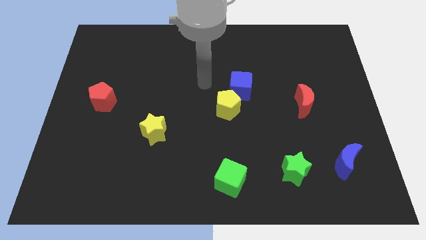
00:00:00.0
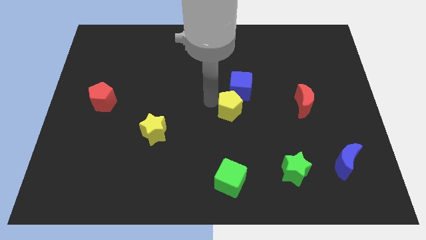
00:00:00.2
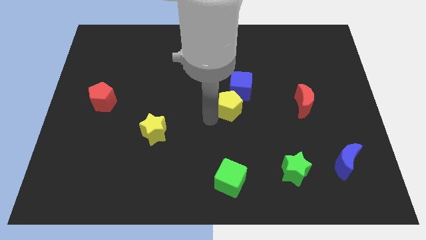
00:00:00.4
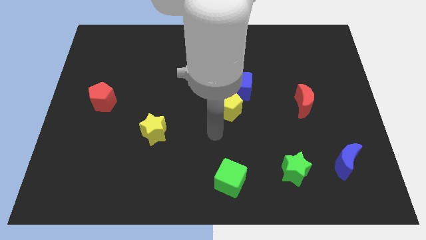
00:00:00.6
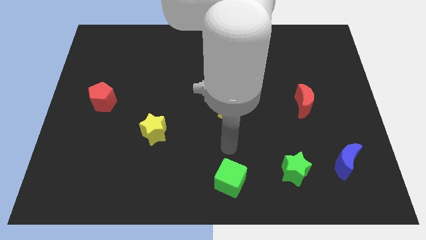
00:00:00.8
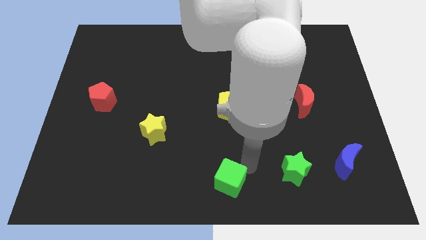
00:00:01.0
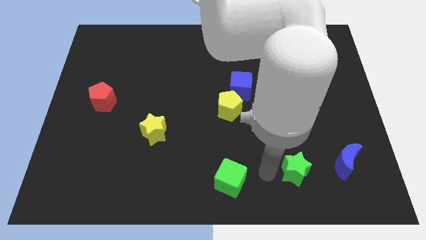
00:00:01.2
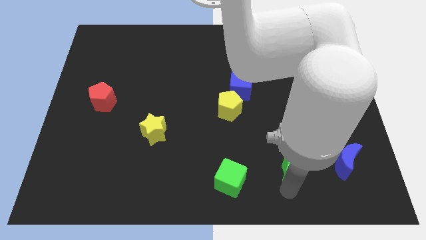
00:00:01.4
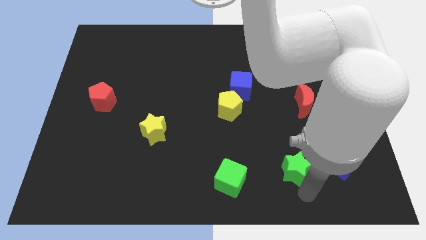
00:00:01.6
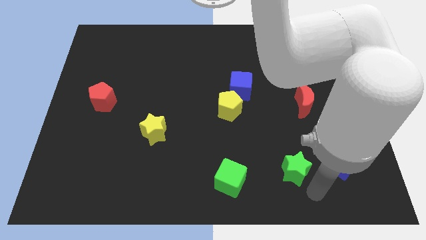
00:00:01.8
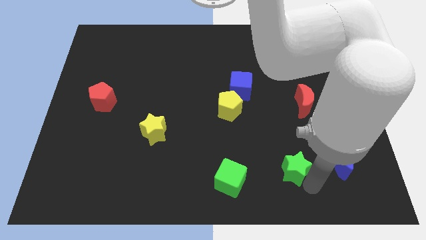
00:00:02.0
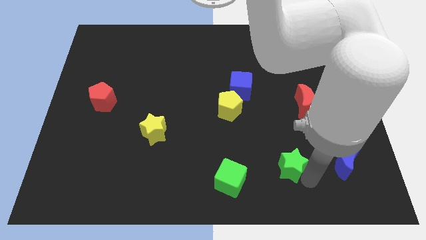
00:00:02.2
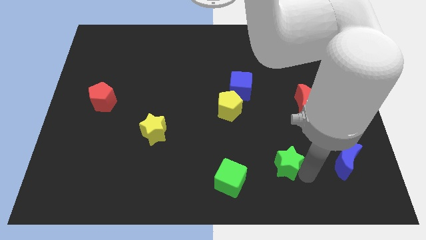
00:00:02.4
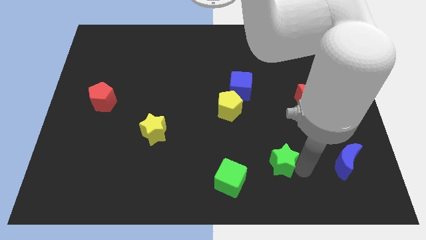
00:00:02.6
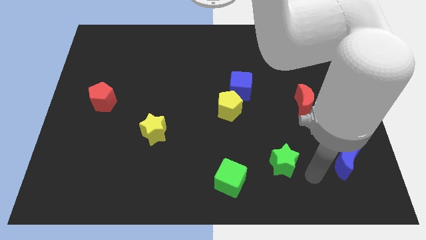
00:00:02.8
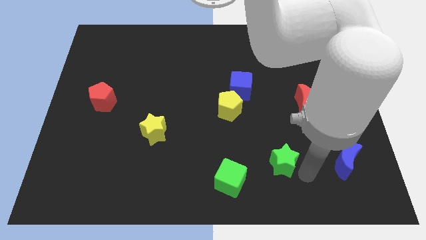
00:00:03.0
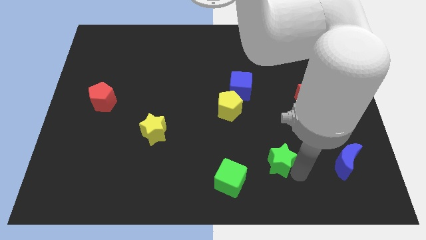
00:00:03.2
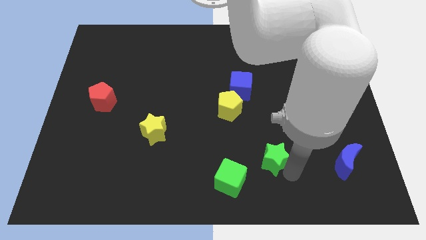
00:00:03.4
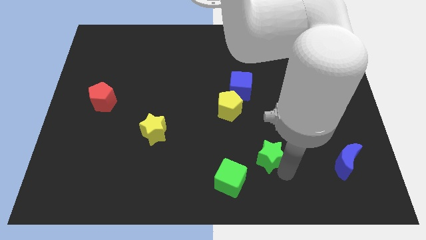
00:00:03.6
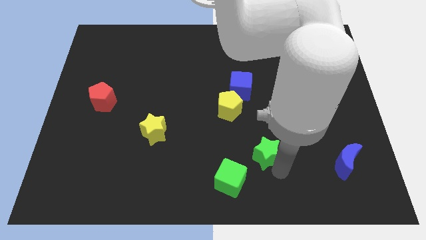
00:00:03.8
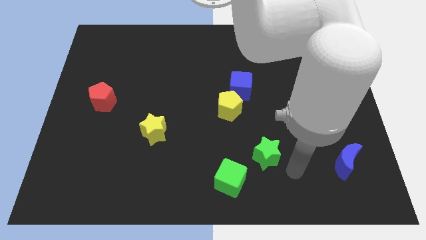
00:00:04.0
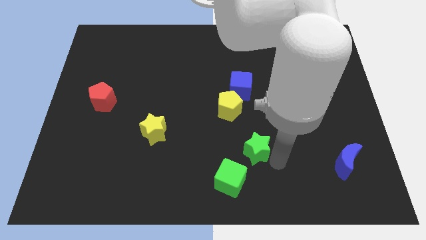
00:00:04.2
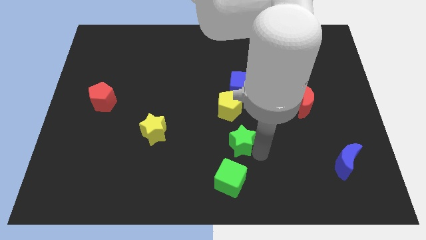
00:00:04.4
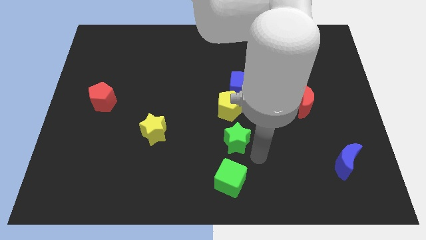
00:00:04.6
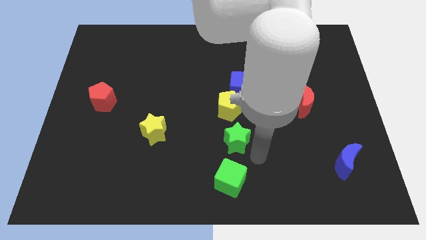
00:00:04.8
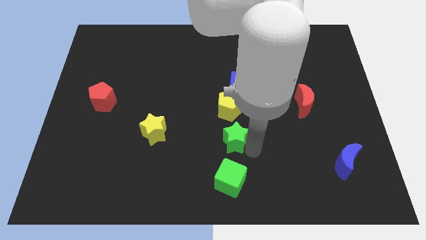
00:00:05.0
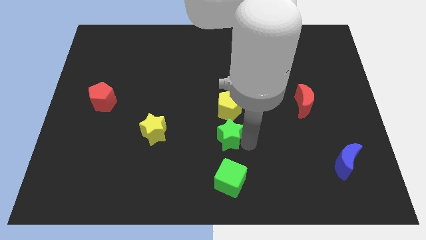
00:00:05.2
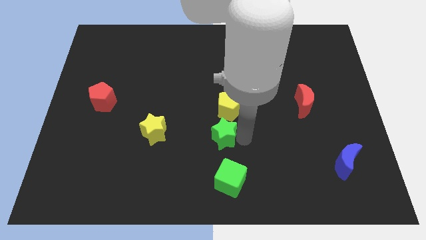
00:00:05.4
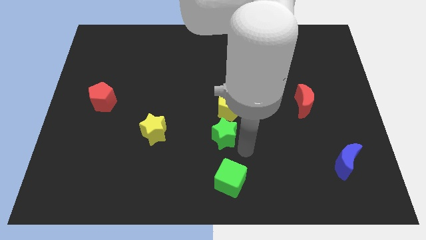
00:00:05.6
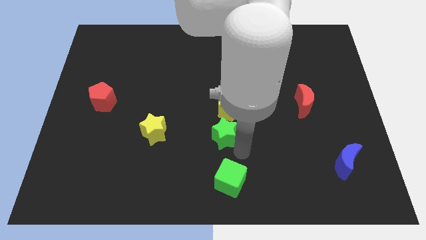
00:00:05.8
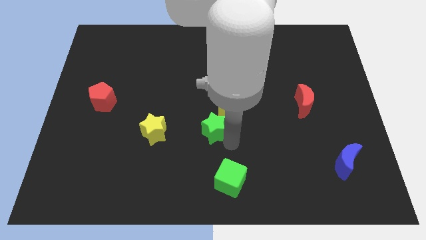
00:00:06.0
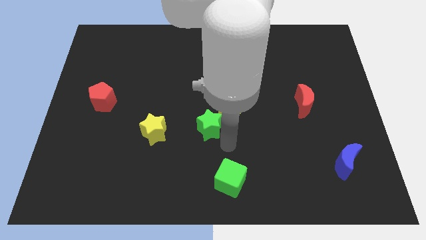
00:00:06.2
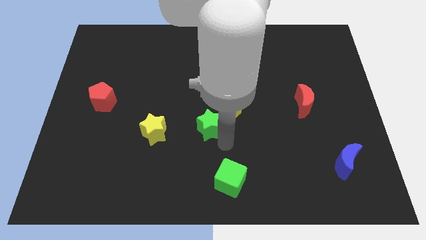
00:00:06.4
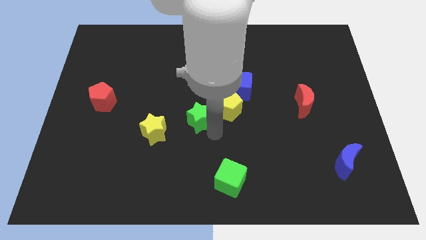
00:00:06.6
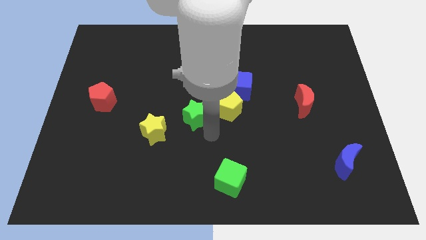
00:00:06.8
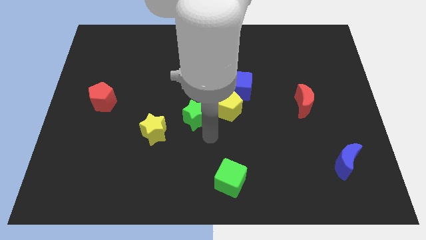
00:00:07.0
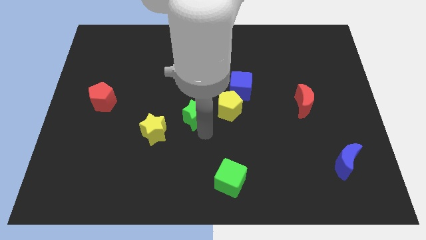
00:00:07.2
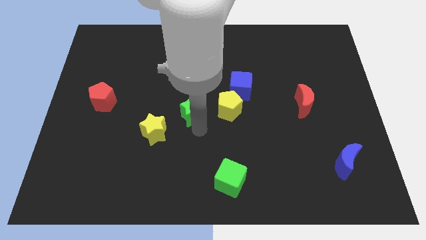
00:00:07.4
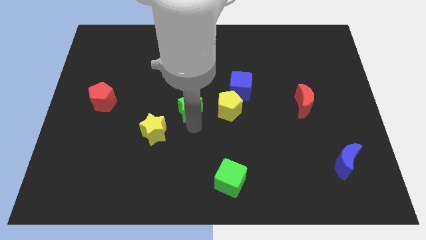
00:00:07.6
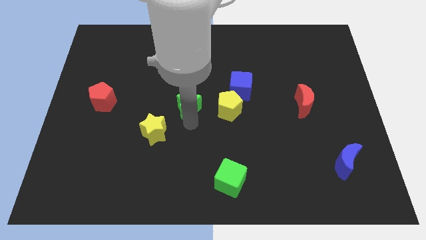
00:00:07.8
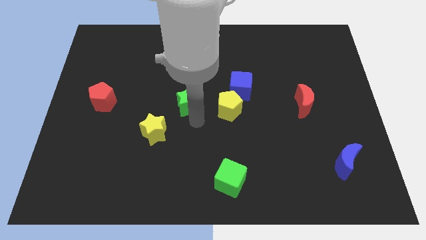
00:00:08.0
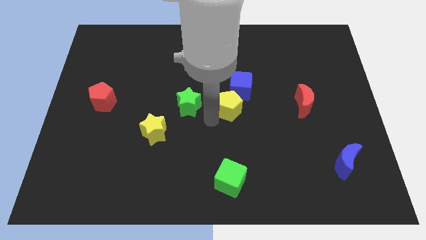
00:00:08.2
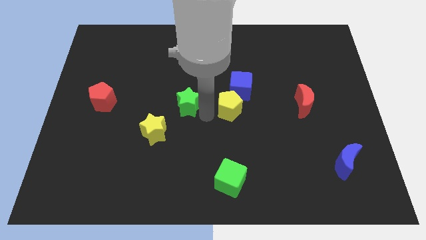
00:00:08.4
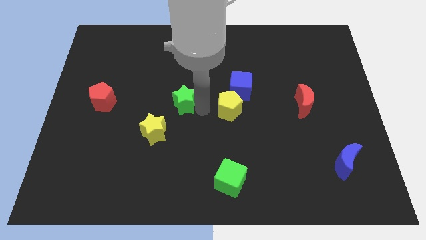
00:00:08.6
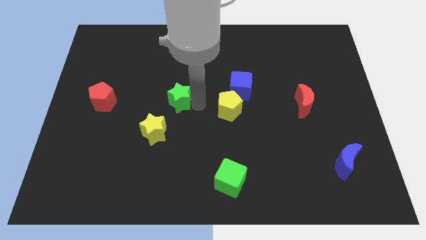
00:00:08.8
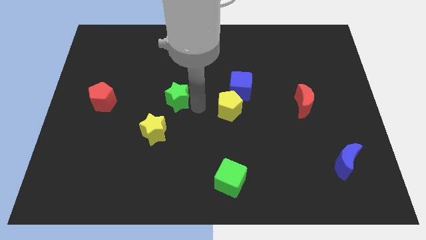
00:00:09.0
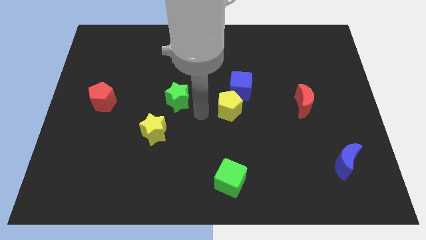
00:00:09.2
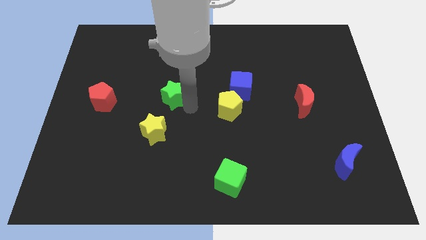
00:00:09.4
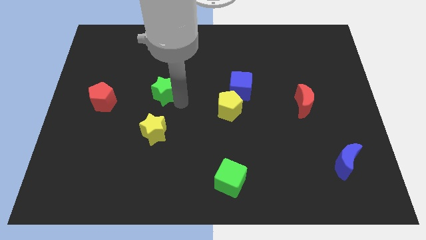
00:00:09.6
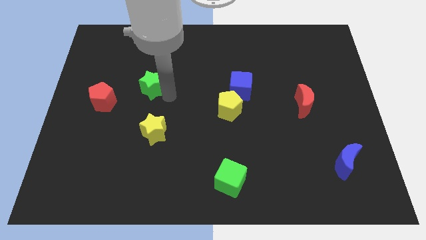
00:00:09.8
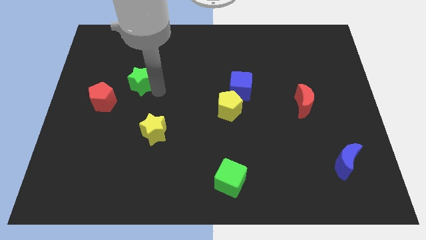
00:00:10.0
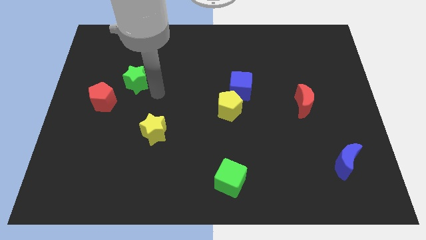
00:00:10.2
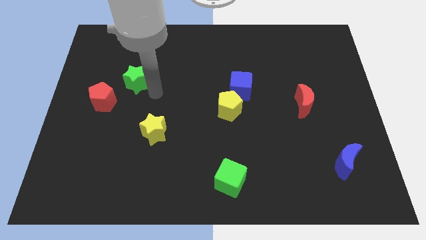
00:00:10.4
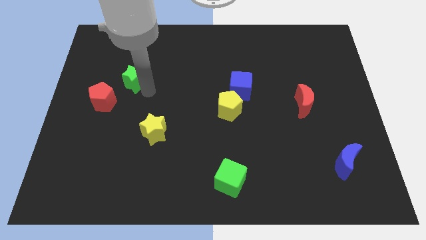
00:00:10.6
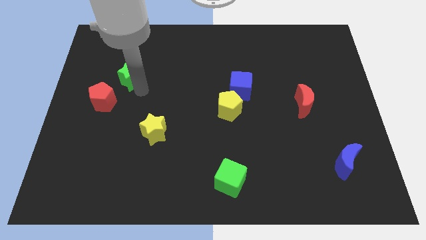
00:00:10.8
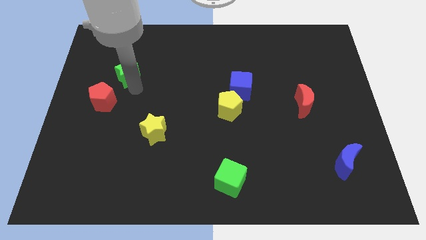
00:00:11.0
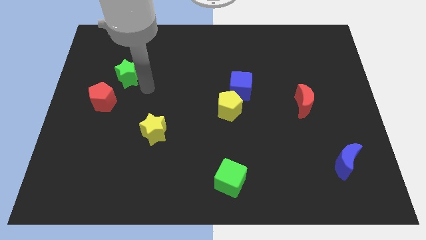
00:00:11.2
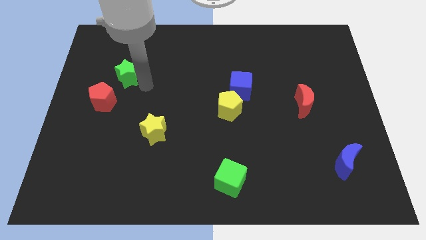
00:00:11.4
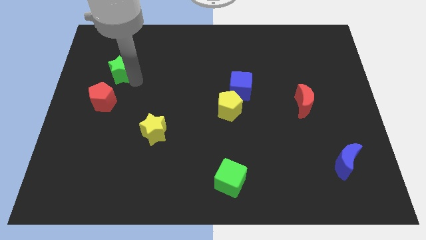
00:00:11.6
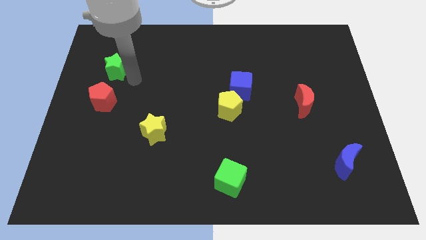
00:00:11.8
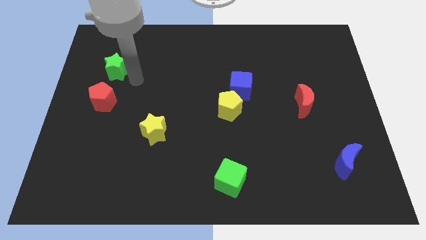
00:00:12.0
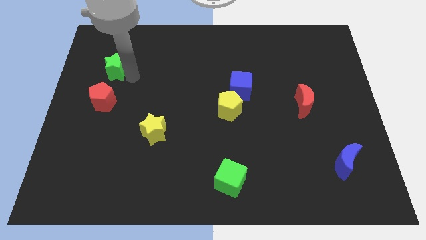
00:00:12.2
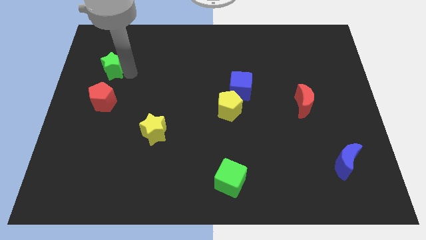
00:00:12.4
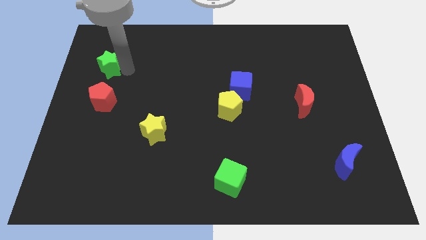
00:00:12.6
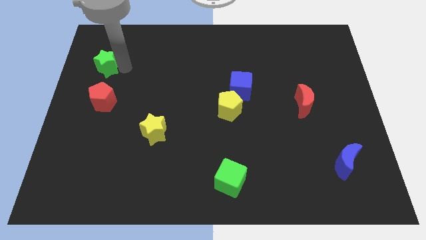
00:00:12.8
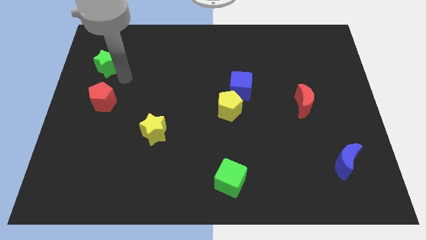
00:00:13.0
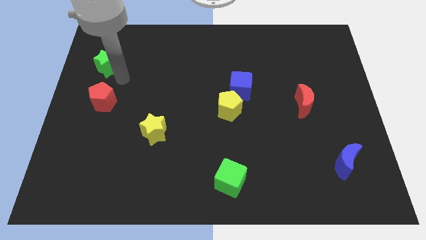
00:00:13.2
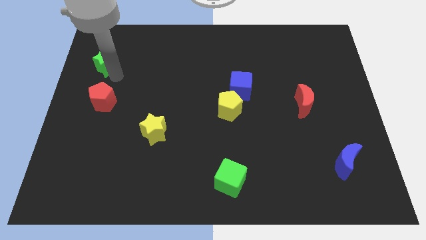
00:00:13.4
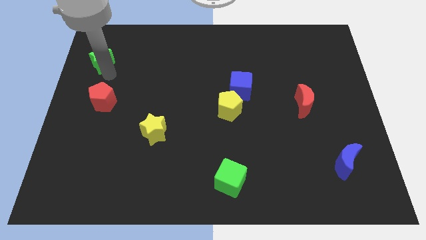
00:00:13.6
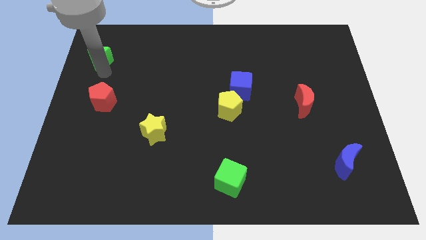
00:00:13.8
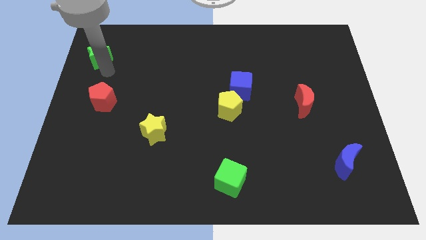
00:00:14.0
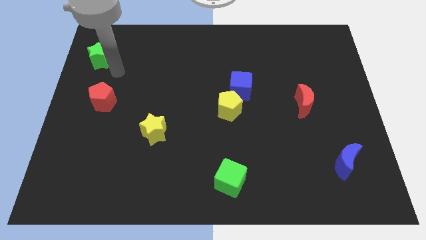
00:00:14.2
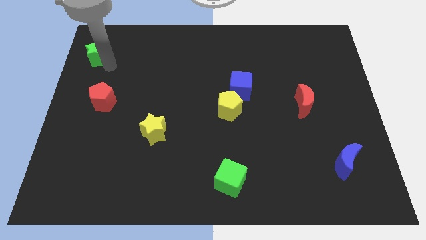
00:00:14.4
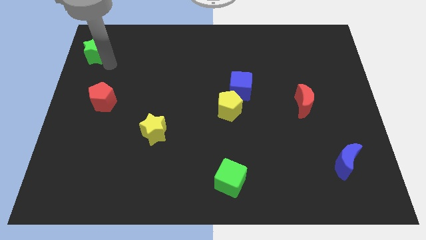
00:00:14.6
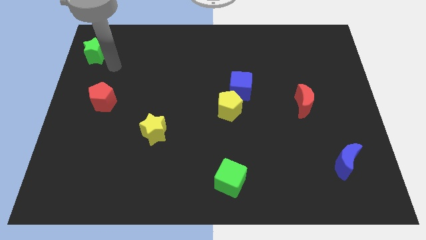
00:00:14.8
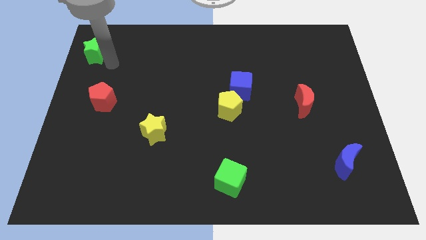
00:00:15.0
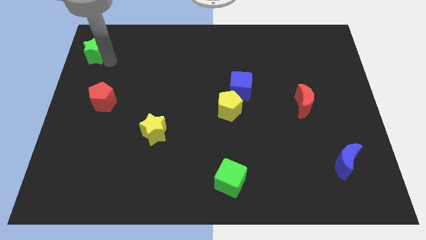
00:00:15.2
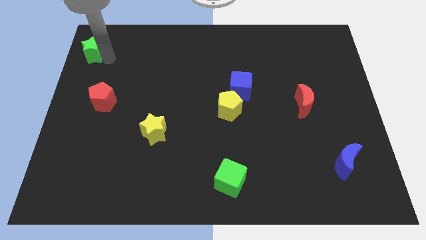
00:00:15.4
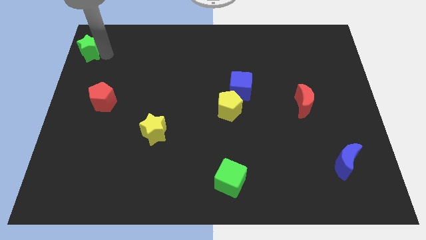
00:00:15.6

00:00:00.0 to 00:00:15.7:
put the green star to the upper left corner
